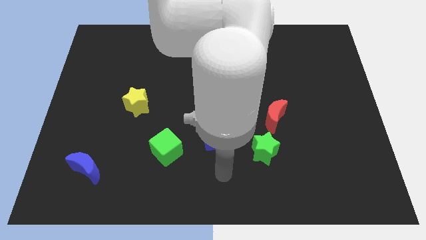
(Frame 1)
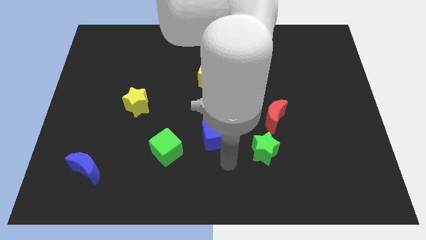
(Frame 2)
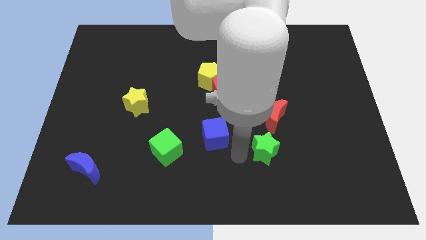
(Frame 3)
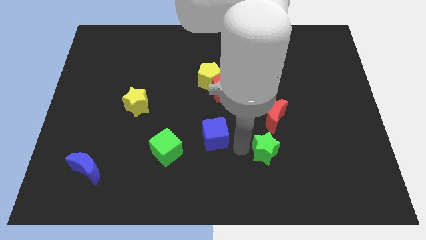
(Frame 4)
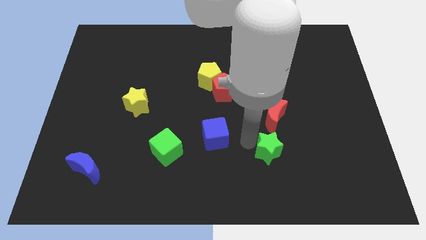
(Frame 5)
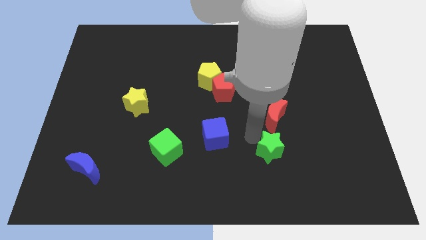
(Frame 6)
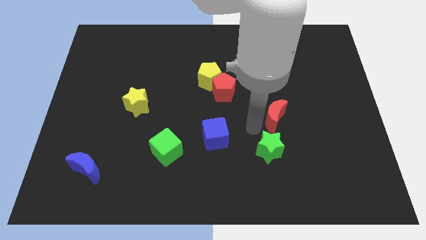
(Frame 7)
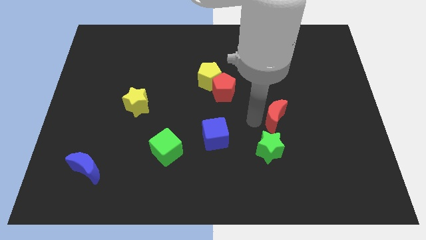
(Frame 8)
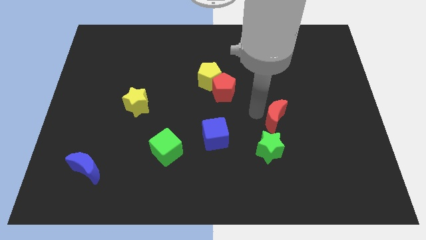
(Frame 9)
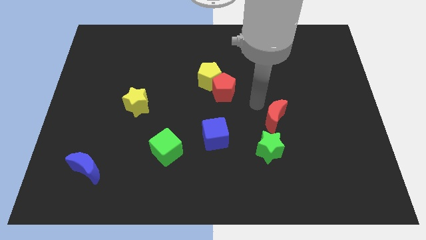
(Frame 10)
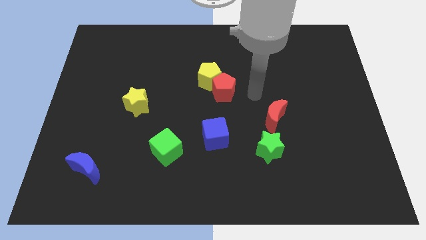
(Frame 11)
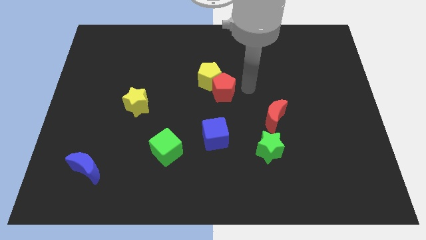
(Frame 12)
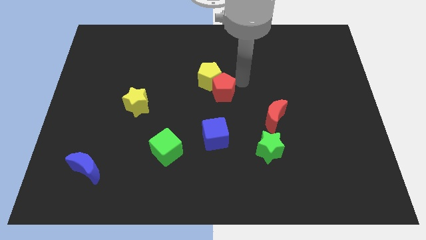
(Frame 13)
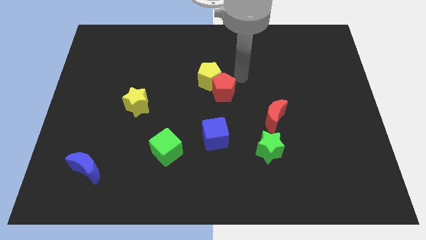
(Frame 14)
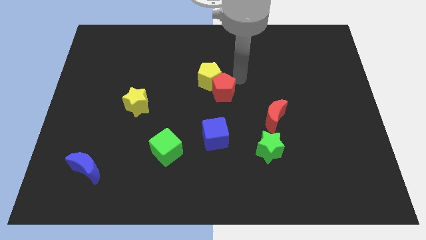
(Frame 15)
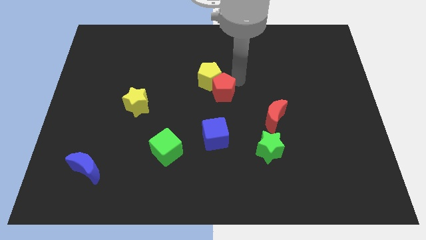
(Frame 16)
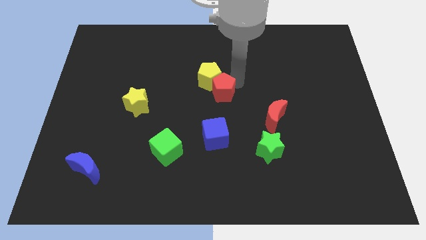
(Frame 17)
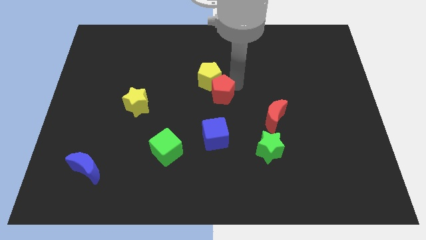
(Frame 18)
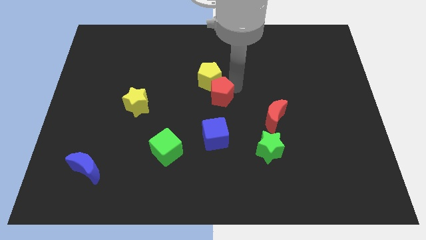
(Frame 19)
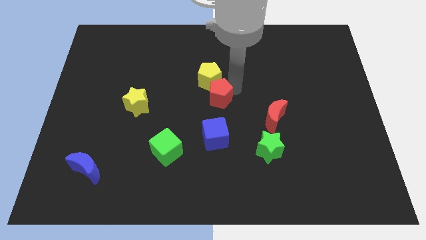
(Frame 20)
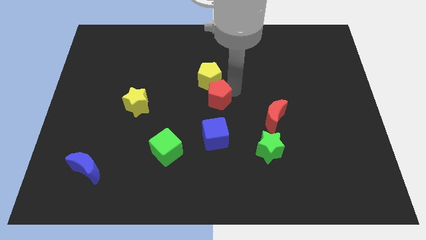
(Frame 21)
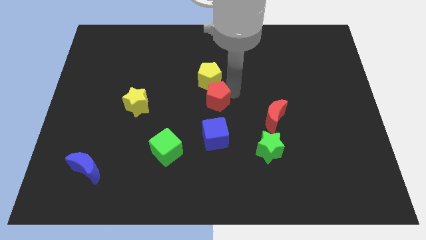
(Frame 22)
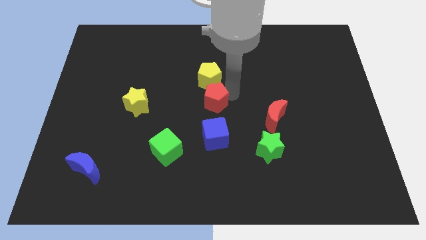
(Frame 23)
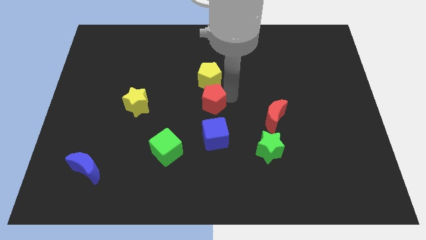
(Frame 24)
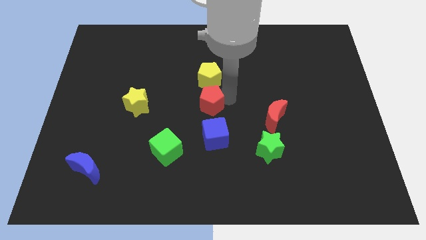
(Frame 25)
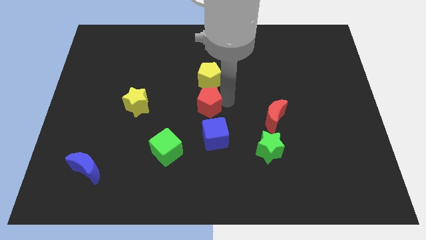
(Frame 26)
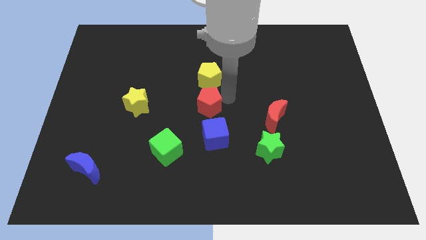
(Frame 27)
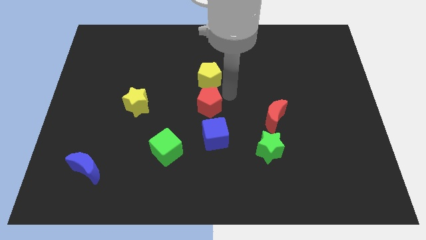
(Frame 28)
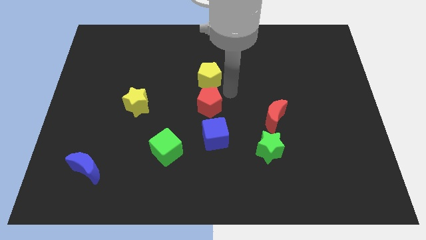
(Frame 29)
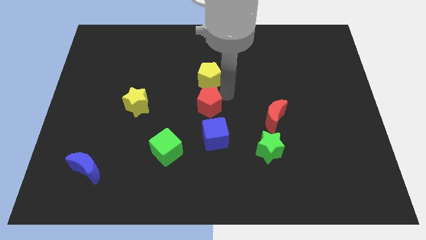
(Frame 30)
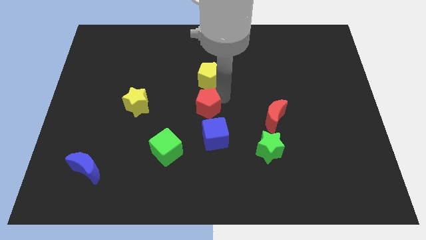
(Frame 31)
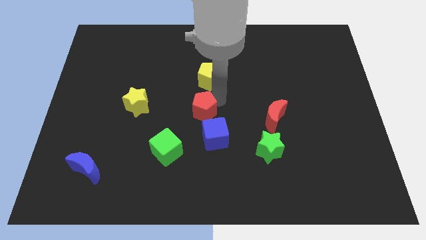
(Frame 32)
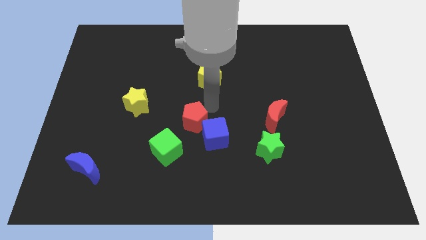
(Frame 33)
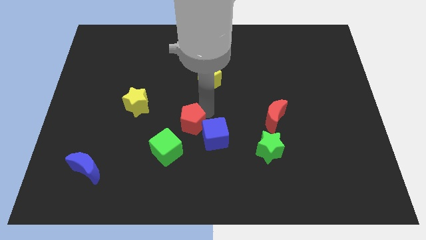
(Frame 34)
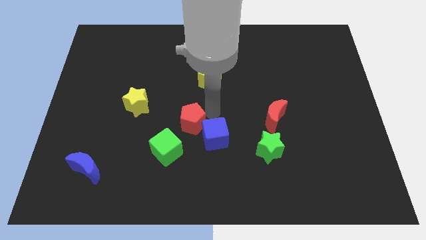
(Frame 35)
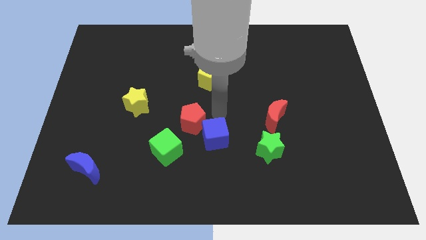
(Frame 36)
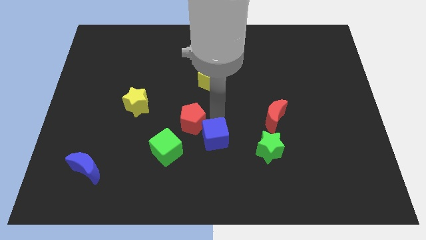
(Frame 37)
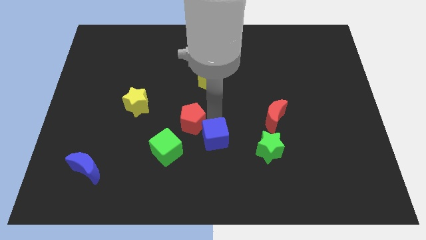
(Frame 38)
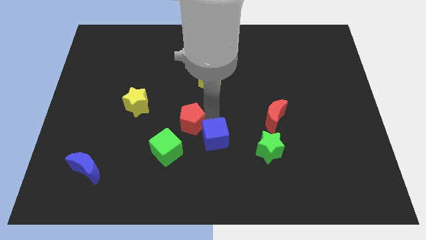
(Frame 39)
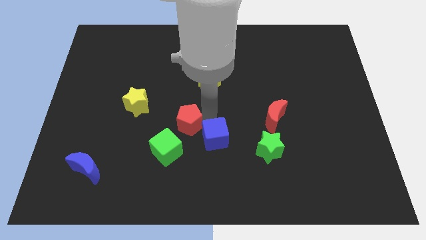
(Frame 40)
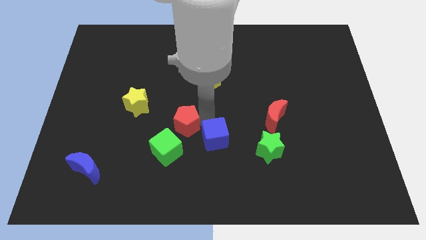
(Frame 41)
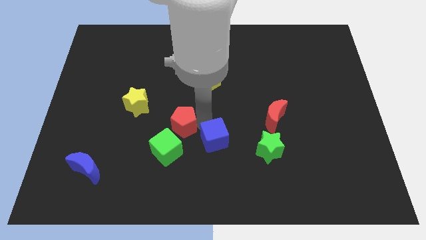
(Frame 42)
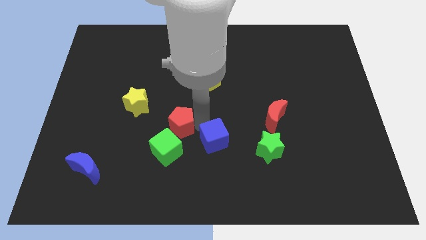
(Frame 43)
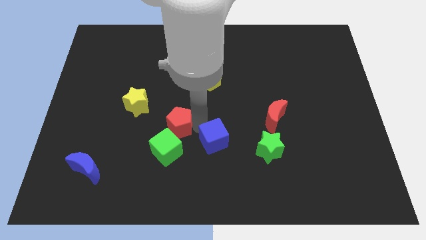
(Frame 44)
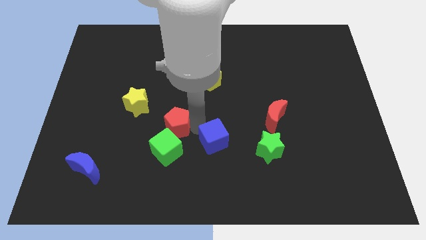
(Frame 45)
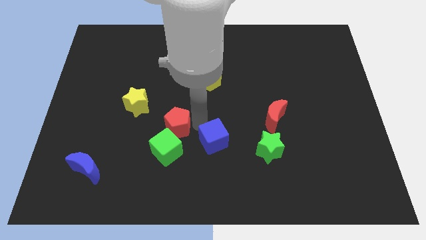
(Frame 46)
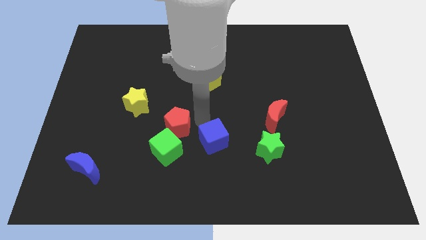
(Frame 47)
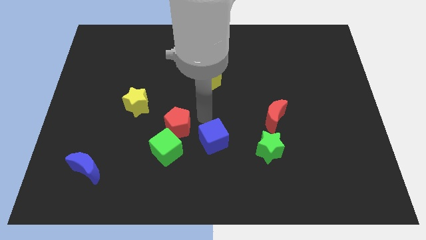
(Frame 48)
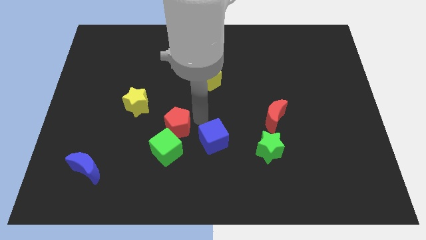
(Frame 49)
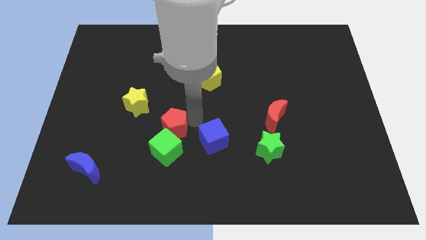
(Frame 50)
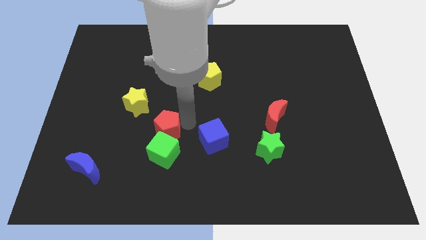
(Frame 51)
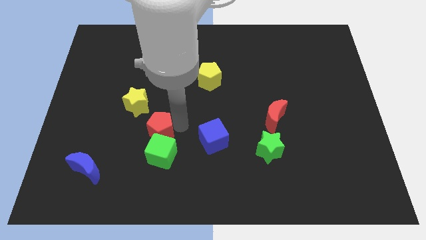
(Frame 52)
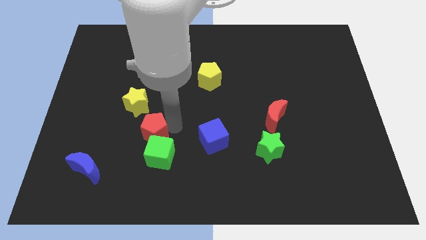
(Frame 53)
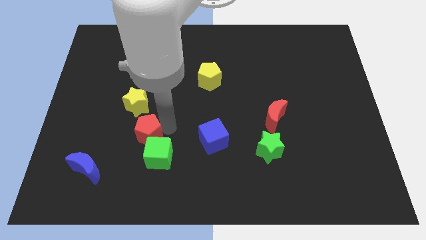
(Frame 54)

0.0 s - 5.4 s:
slide the red pentagon downwards and left diagonally

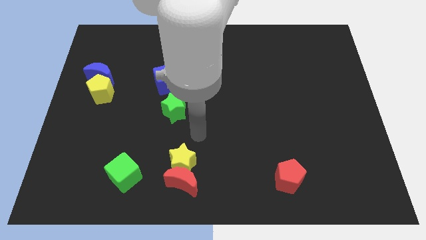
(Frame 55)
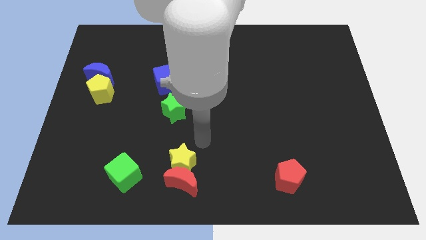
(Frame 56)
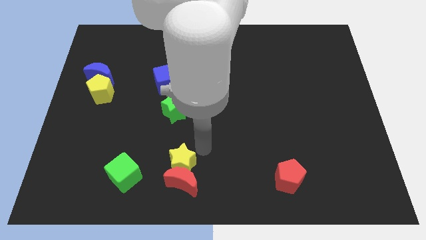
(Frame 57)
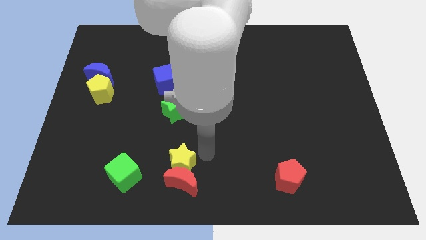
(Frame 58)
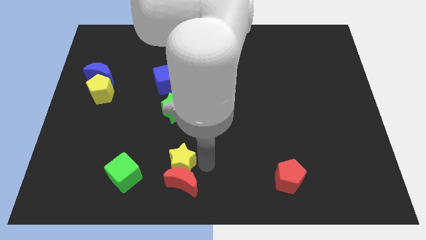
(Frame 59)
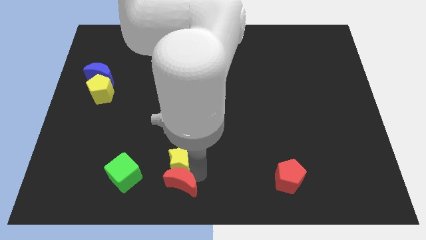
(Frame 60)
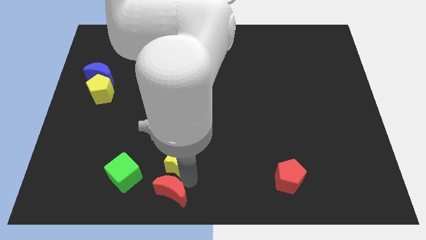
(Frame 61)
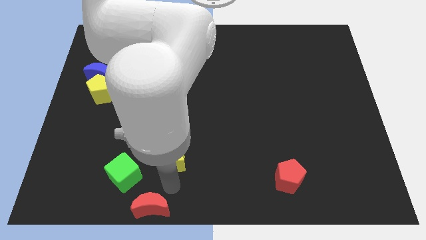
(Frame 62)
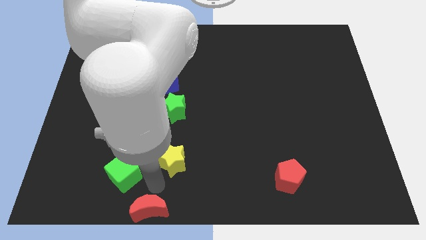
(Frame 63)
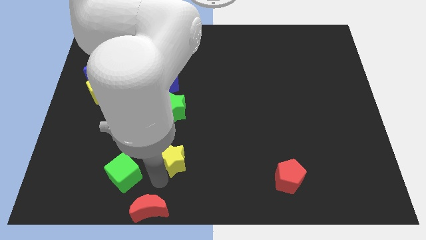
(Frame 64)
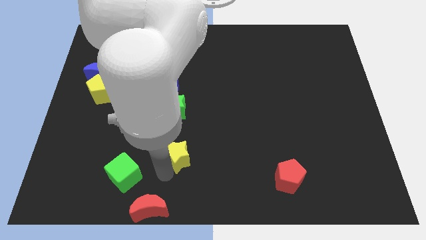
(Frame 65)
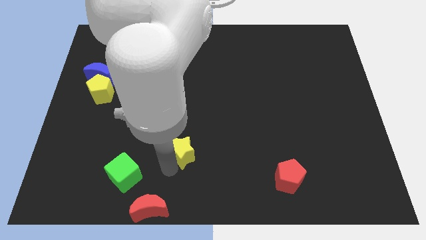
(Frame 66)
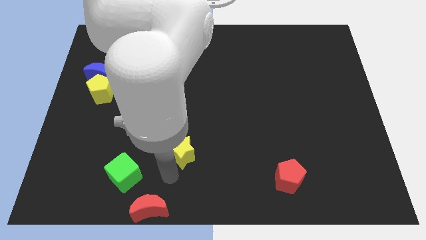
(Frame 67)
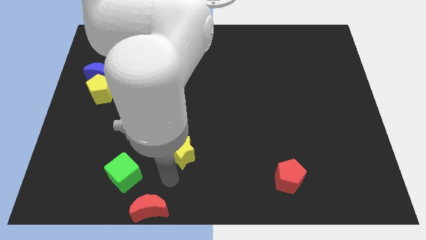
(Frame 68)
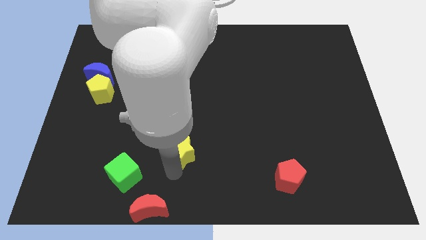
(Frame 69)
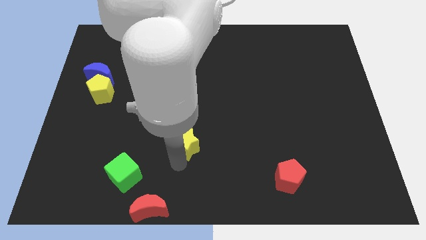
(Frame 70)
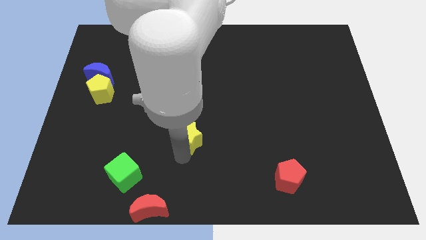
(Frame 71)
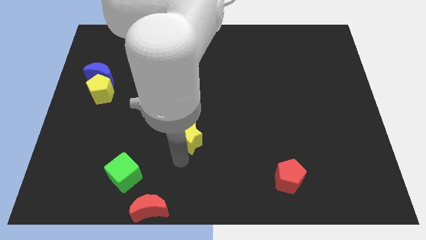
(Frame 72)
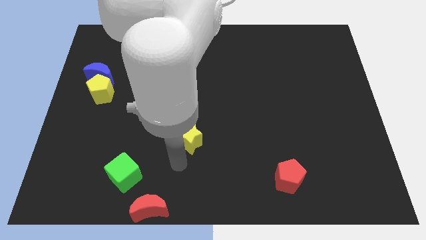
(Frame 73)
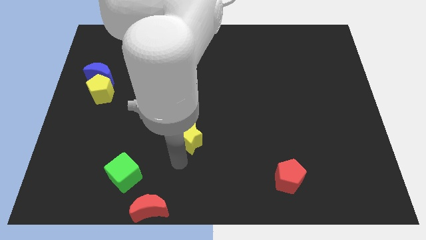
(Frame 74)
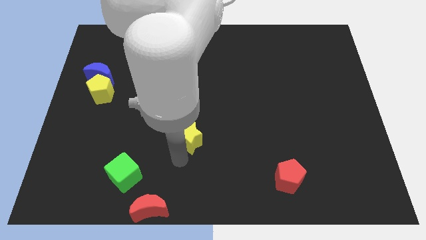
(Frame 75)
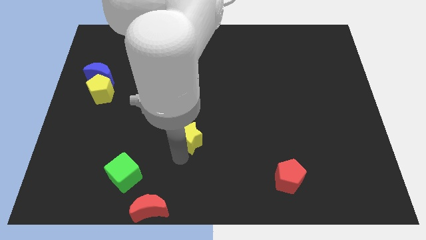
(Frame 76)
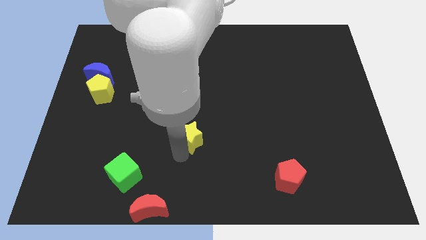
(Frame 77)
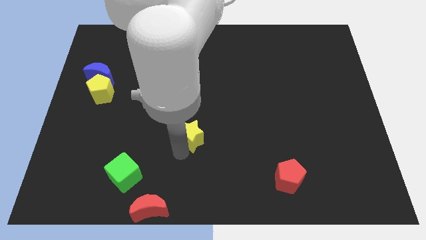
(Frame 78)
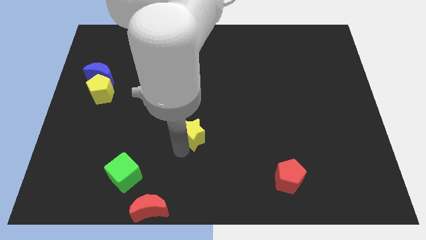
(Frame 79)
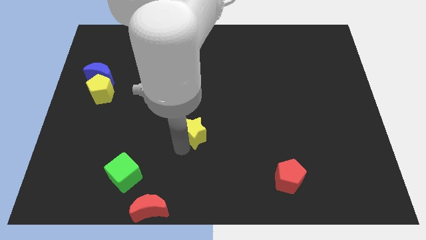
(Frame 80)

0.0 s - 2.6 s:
slide the yellow star upwards slightly
